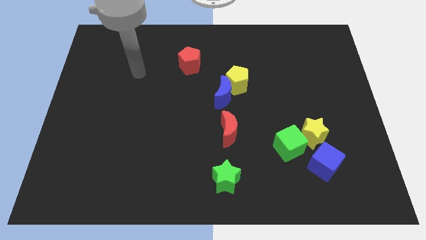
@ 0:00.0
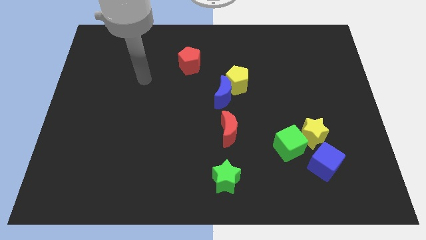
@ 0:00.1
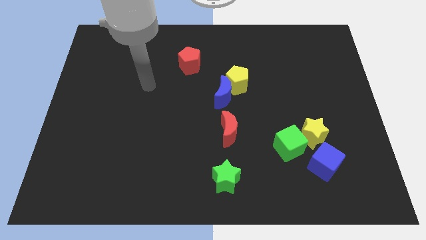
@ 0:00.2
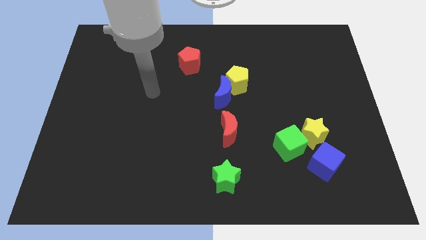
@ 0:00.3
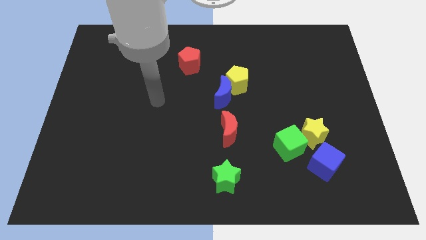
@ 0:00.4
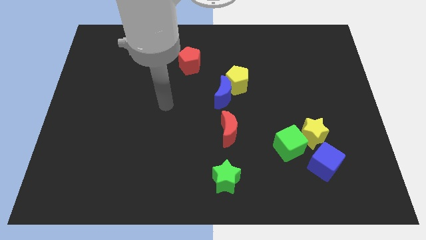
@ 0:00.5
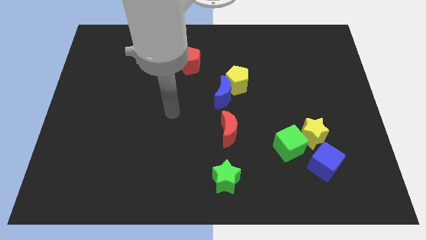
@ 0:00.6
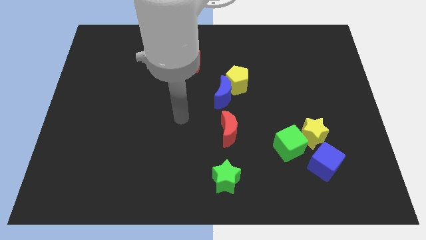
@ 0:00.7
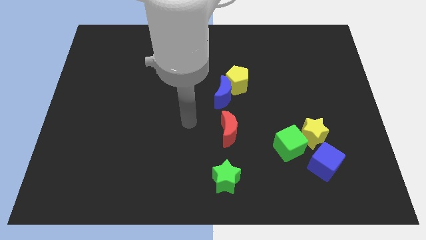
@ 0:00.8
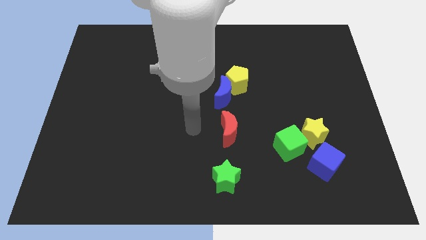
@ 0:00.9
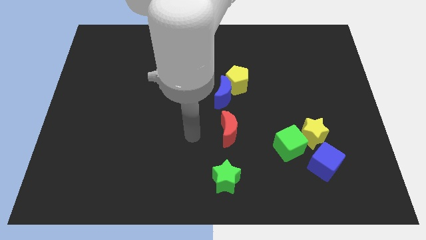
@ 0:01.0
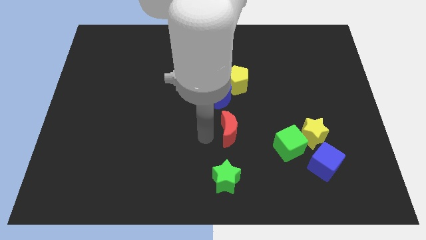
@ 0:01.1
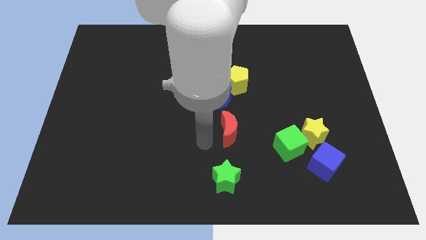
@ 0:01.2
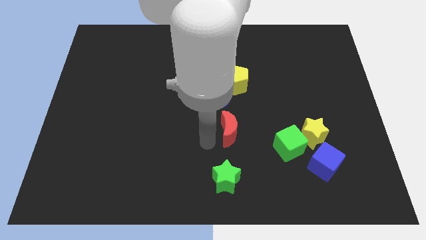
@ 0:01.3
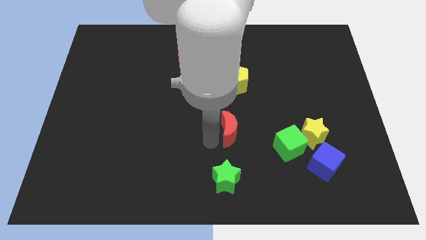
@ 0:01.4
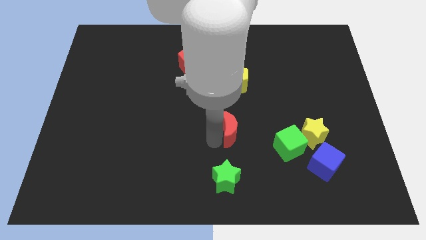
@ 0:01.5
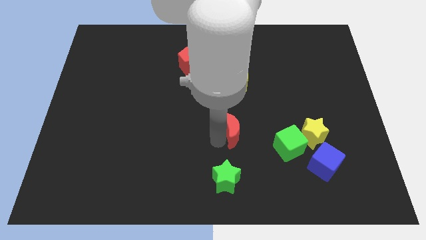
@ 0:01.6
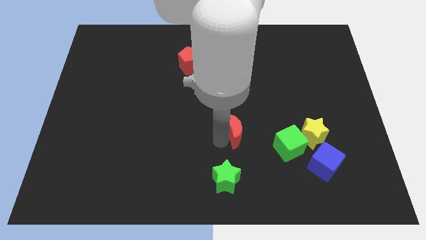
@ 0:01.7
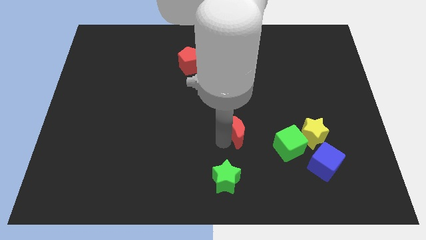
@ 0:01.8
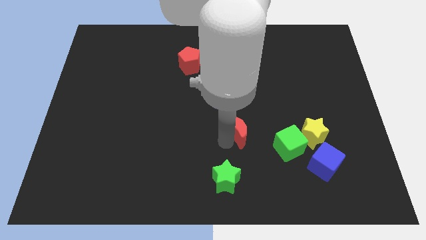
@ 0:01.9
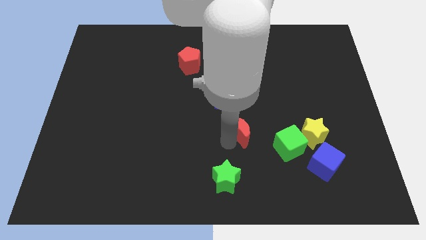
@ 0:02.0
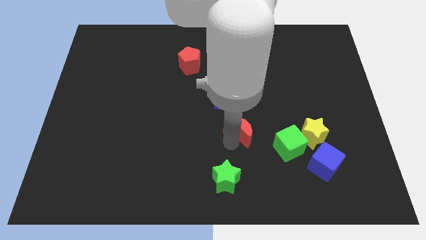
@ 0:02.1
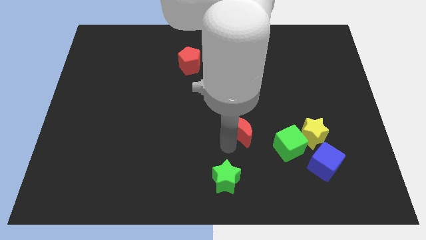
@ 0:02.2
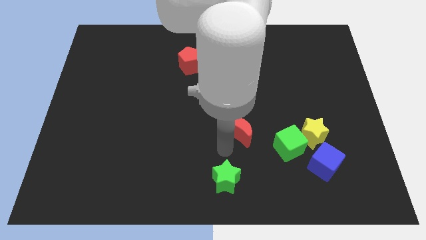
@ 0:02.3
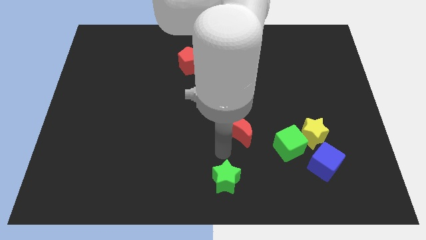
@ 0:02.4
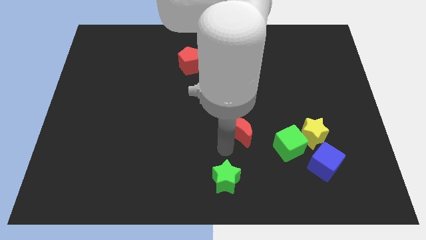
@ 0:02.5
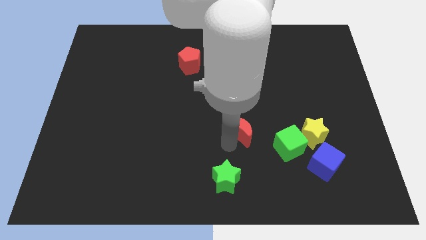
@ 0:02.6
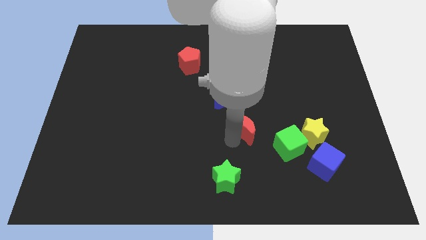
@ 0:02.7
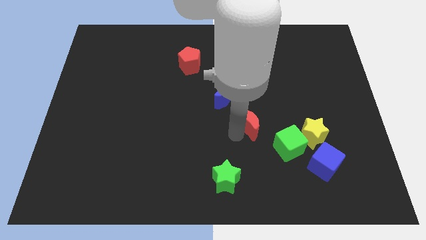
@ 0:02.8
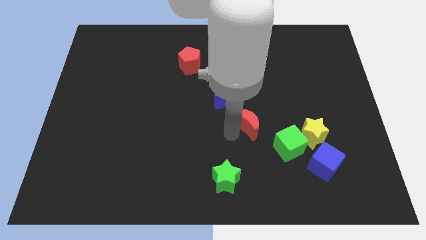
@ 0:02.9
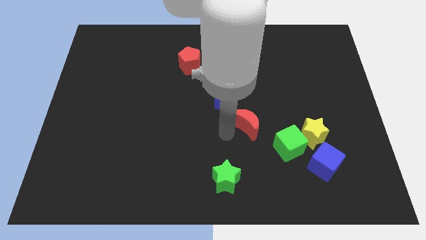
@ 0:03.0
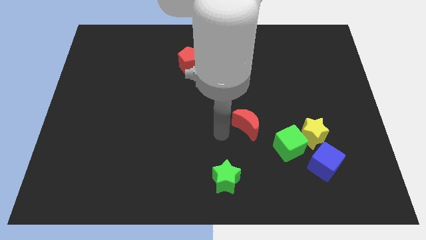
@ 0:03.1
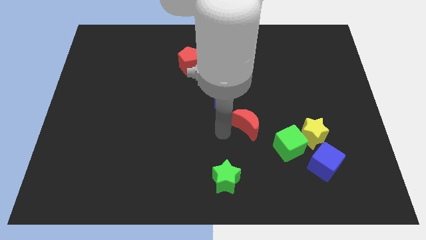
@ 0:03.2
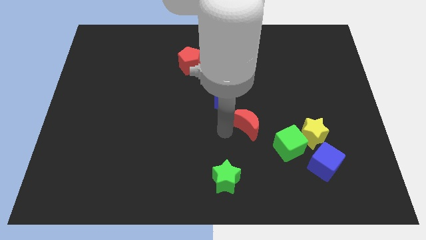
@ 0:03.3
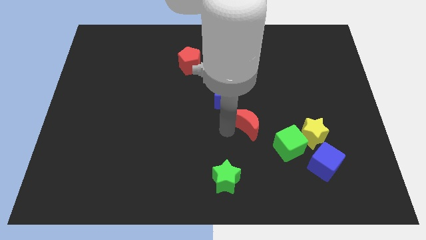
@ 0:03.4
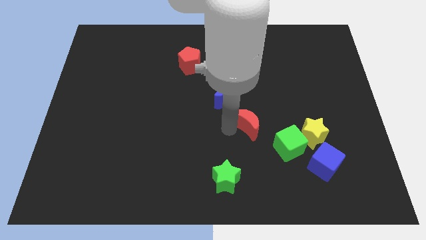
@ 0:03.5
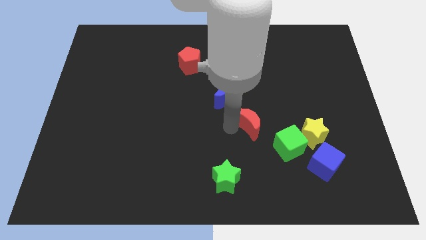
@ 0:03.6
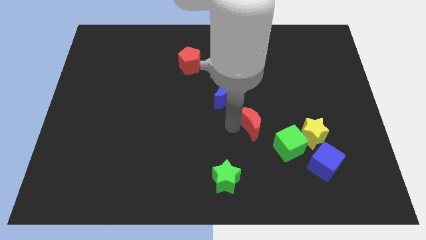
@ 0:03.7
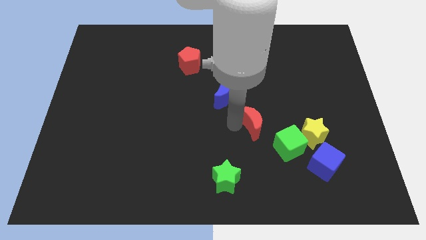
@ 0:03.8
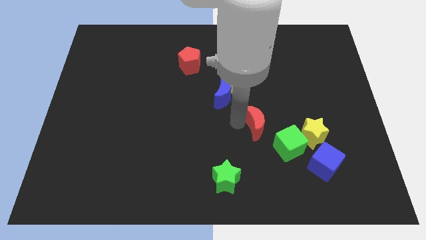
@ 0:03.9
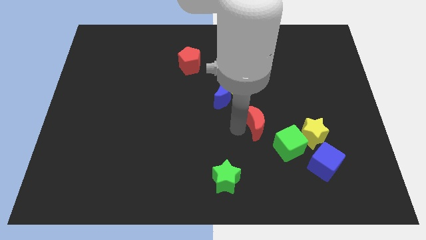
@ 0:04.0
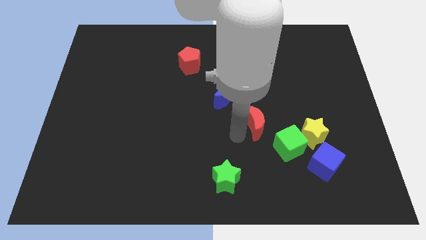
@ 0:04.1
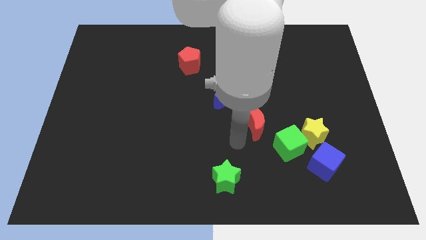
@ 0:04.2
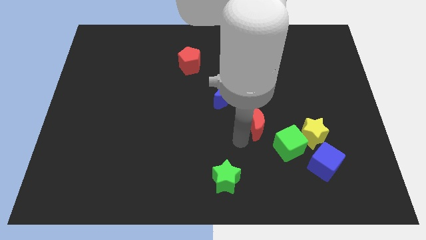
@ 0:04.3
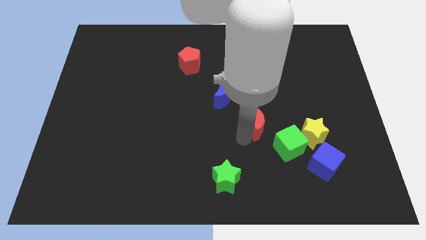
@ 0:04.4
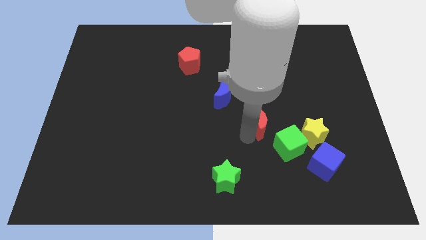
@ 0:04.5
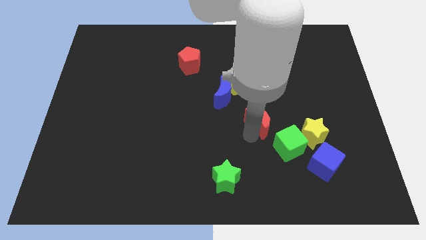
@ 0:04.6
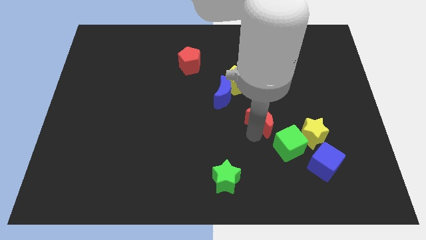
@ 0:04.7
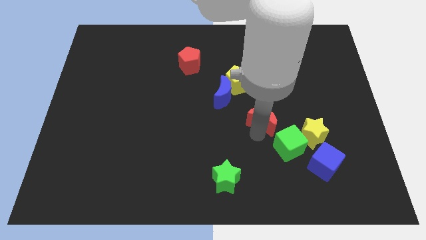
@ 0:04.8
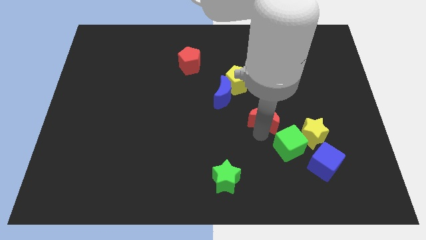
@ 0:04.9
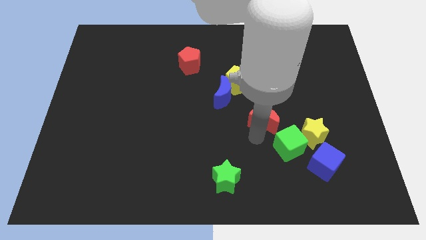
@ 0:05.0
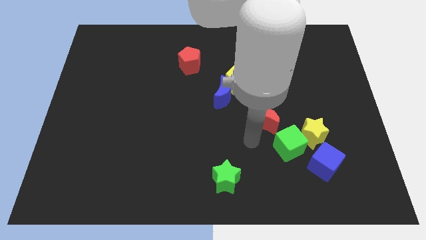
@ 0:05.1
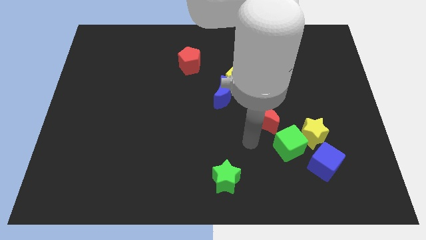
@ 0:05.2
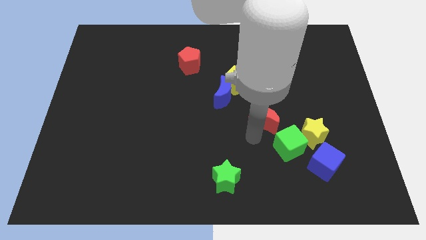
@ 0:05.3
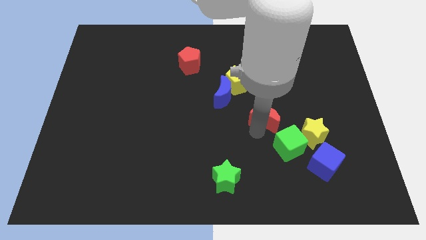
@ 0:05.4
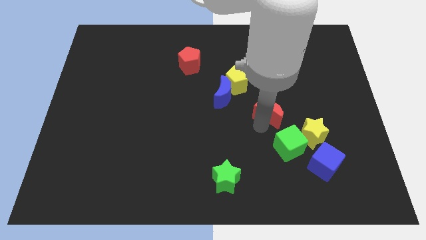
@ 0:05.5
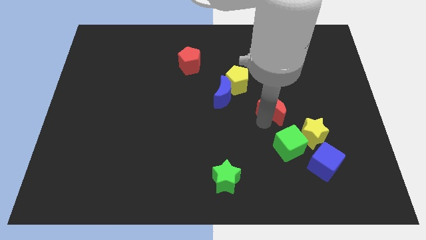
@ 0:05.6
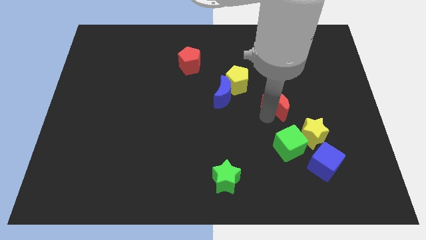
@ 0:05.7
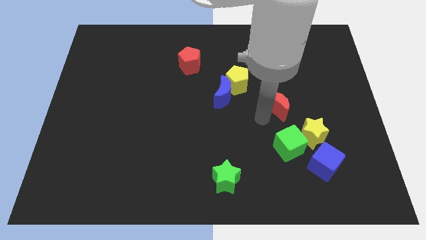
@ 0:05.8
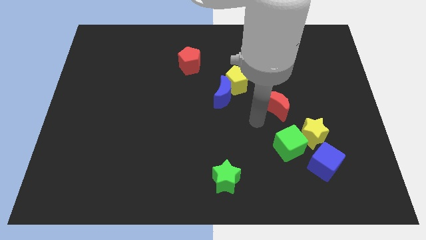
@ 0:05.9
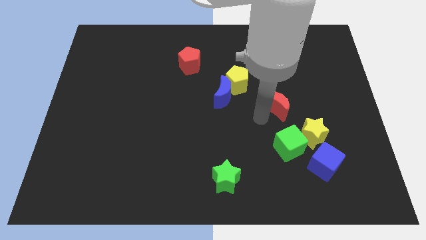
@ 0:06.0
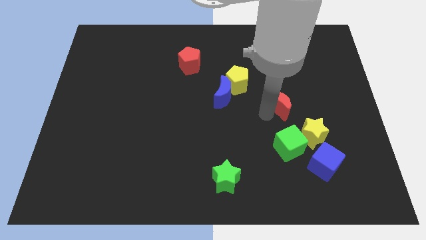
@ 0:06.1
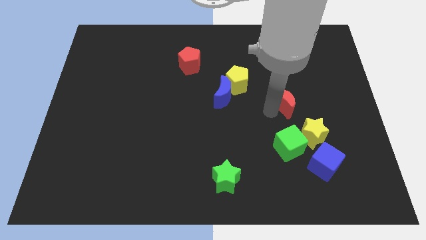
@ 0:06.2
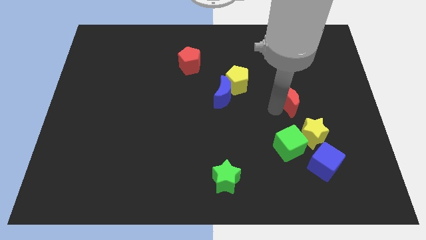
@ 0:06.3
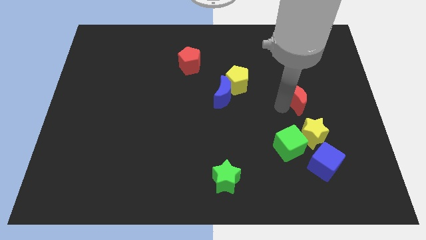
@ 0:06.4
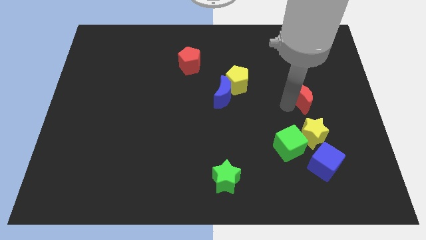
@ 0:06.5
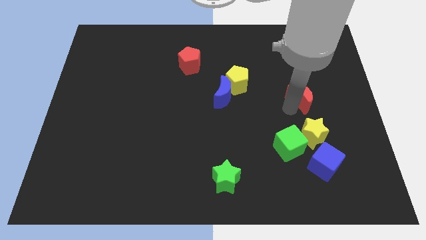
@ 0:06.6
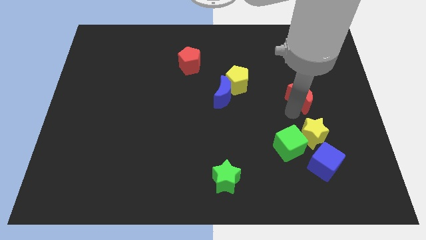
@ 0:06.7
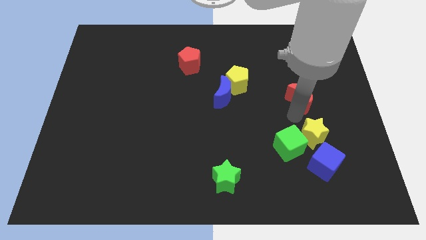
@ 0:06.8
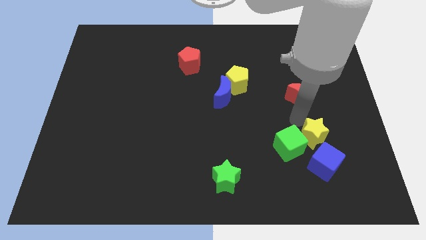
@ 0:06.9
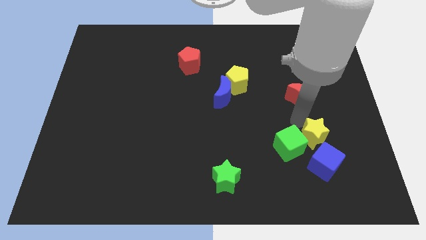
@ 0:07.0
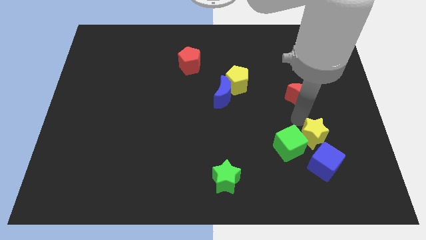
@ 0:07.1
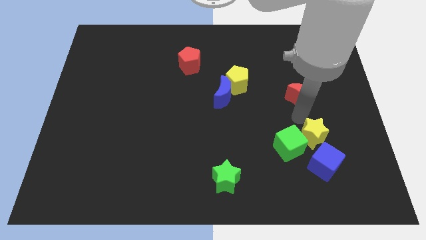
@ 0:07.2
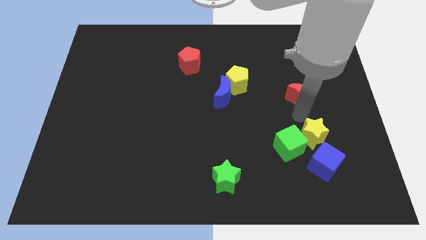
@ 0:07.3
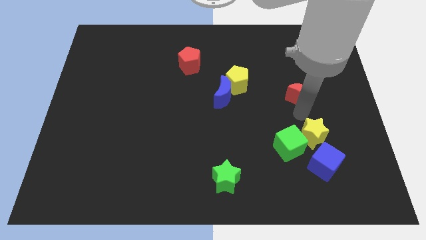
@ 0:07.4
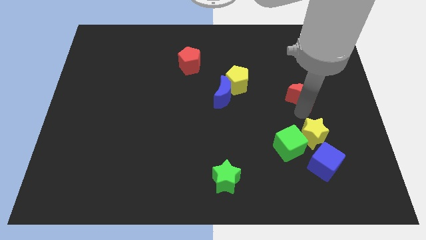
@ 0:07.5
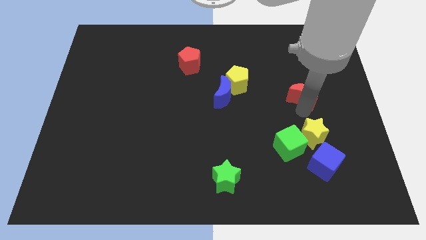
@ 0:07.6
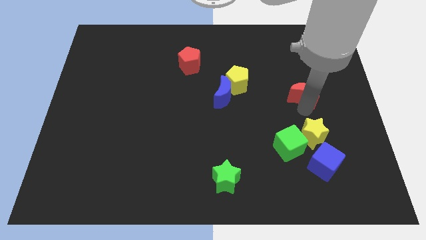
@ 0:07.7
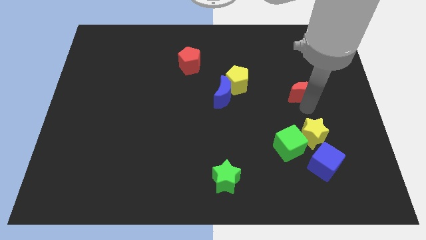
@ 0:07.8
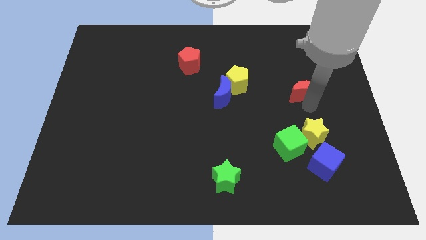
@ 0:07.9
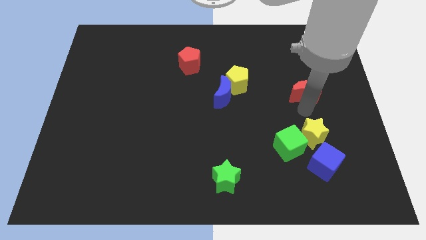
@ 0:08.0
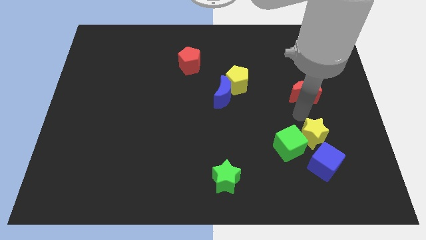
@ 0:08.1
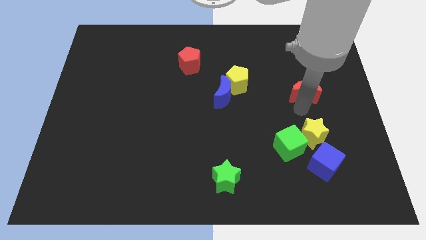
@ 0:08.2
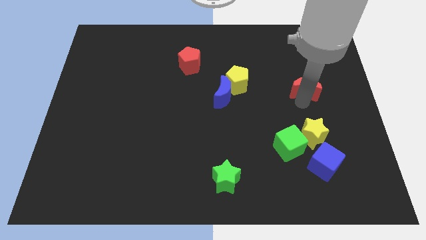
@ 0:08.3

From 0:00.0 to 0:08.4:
move the red moon up and to the right
